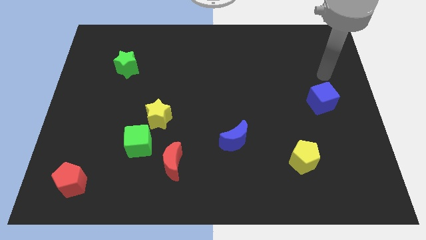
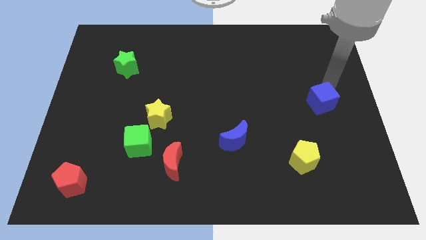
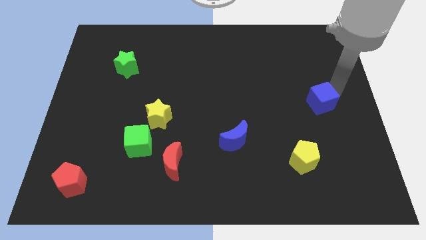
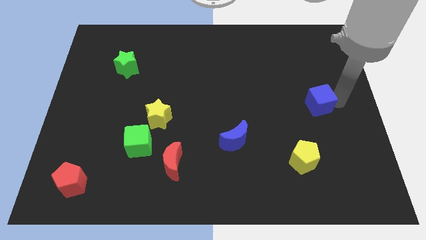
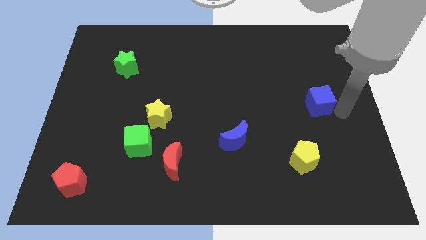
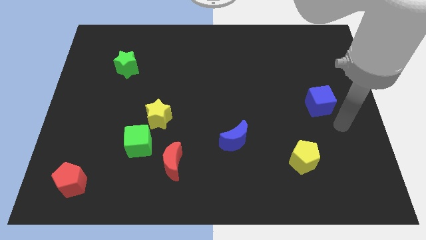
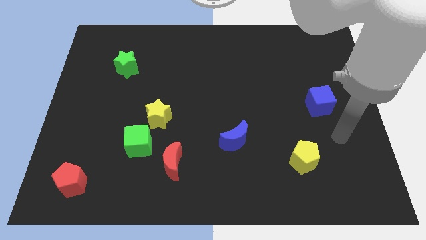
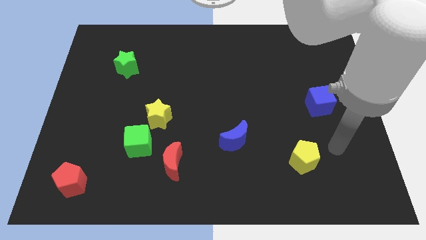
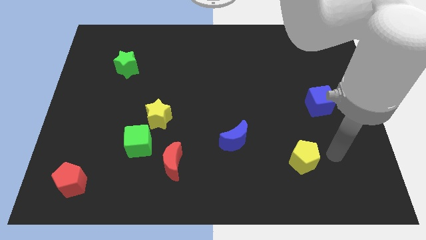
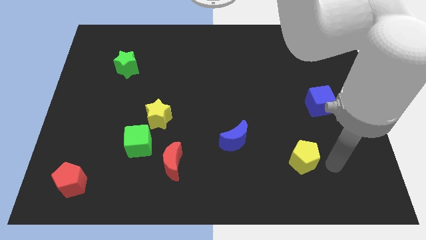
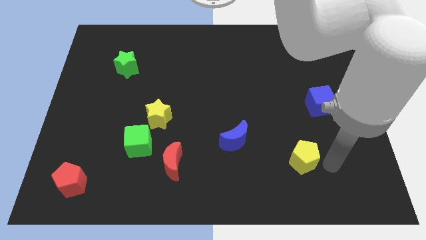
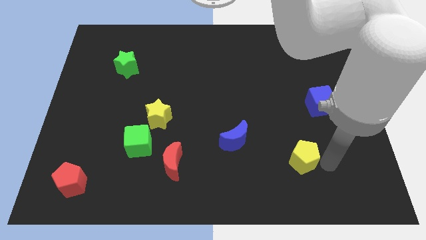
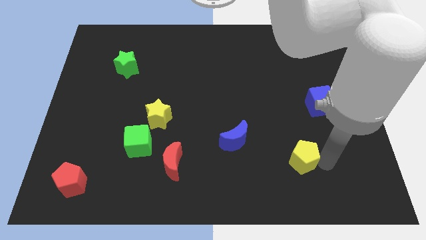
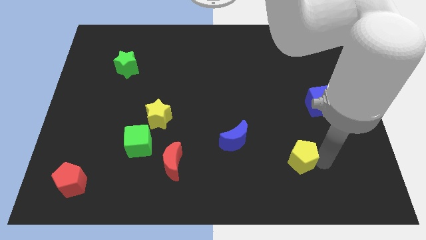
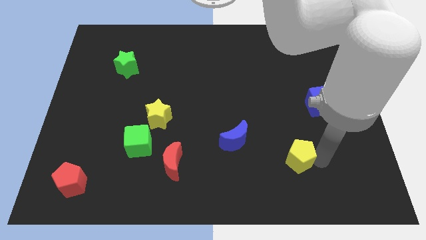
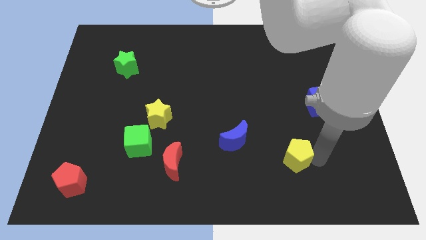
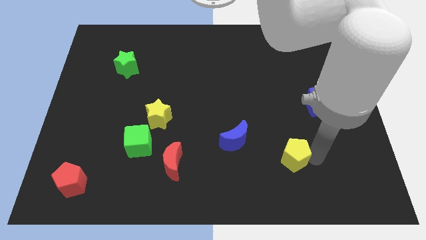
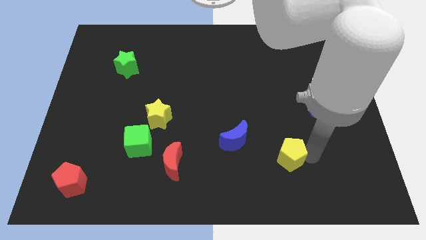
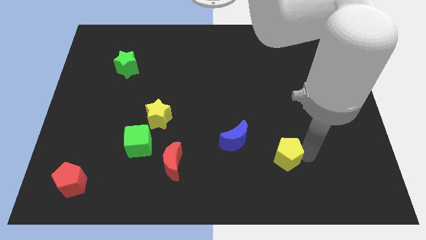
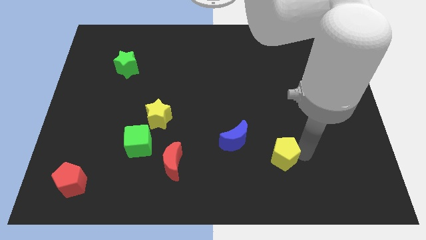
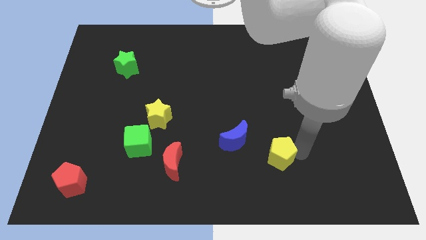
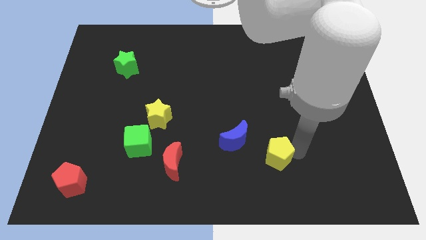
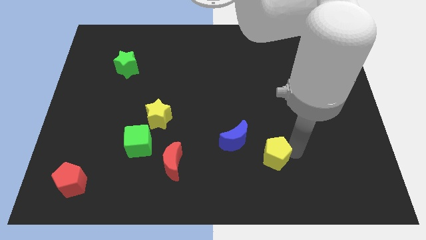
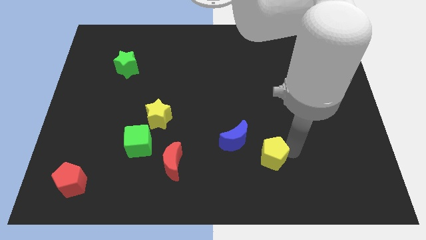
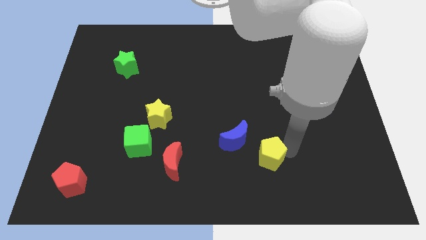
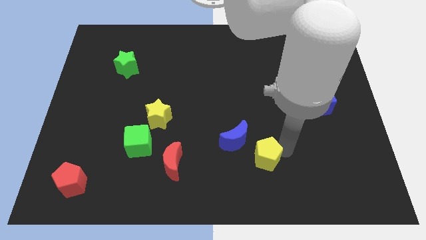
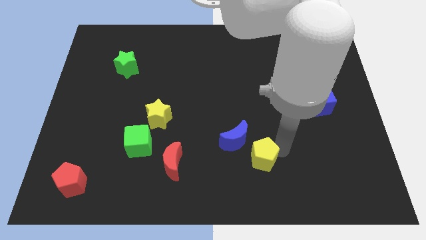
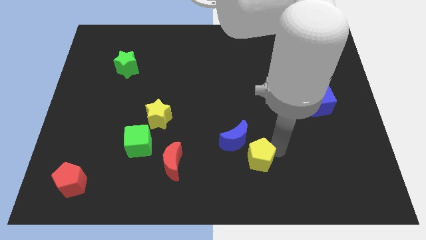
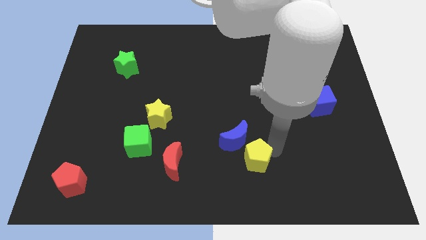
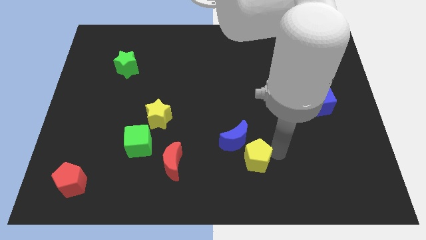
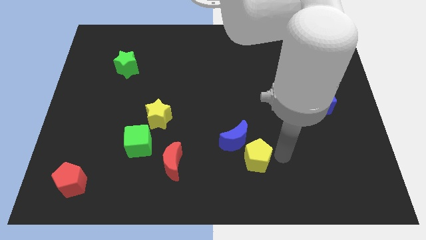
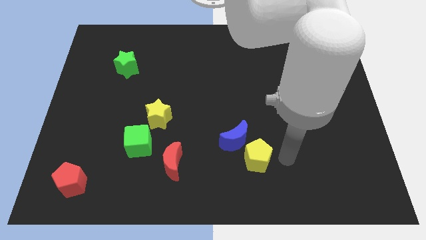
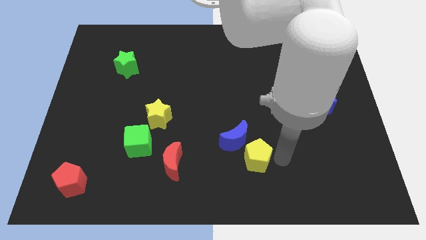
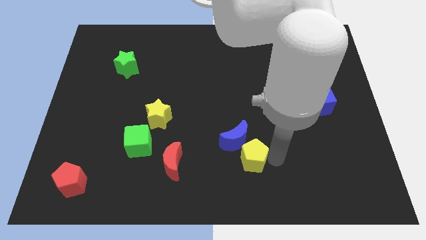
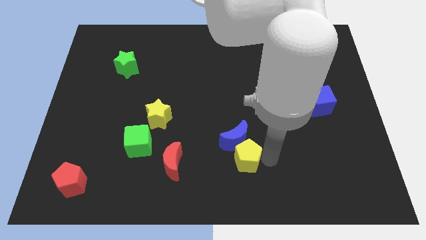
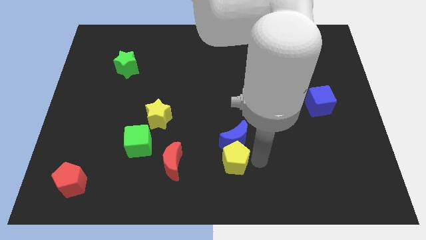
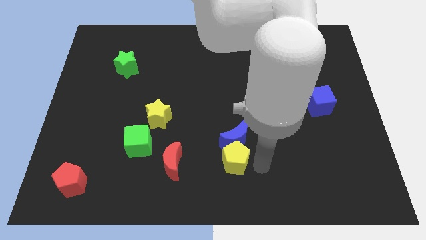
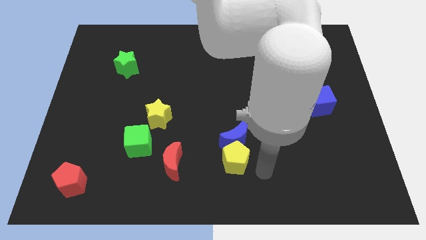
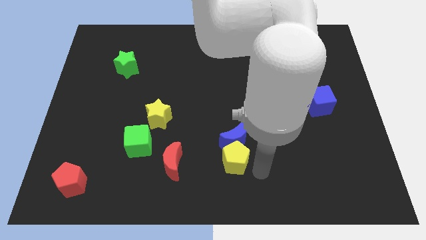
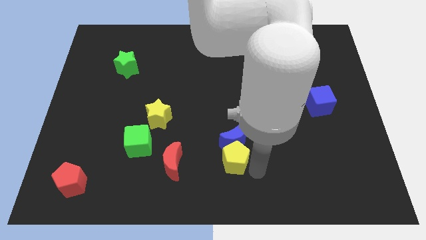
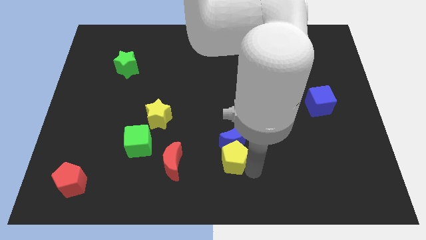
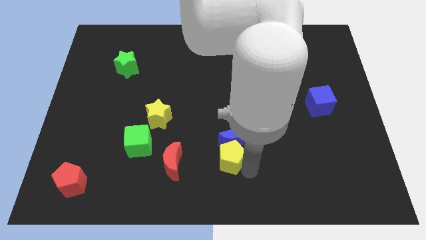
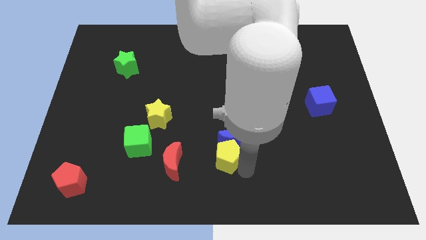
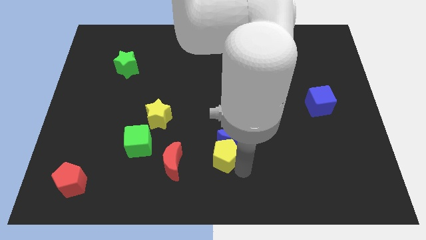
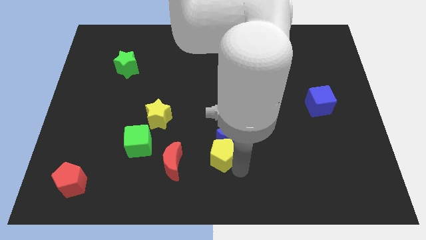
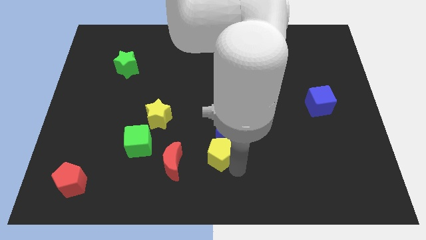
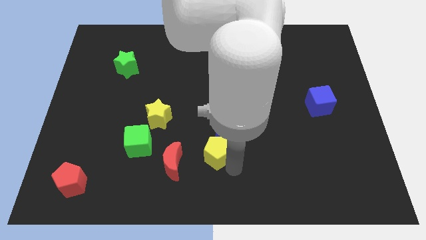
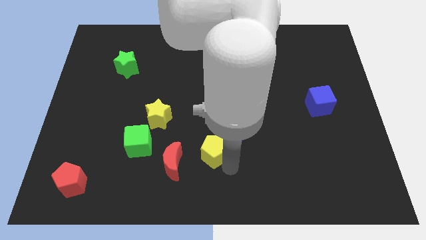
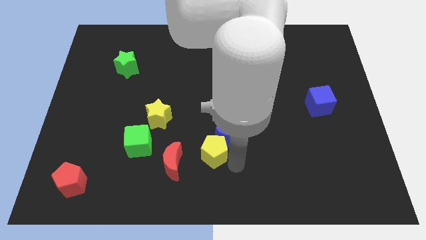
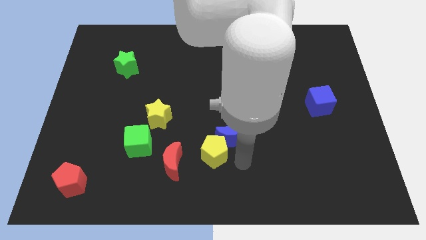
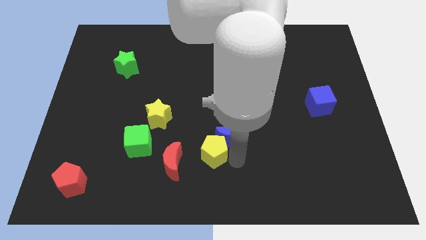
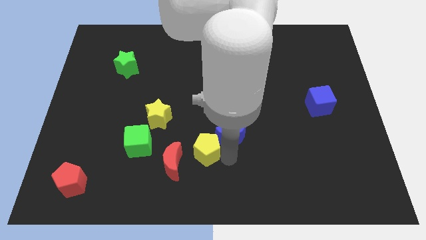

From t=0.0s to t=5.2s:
push the yellow pentagon to the left

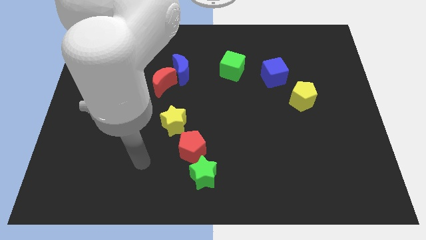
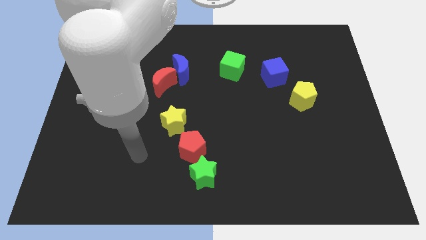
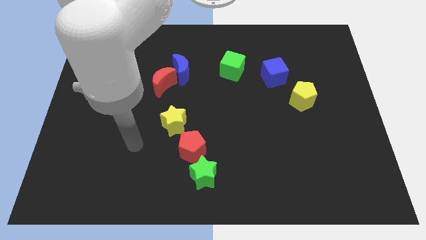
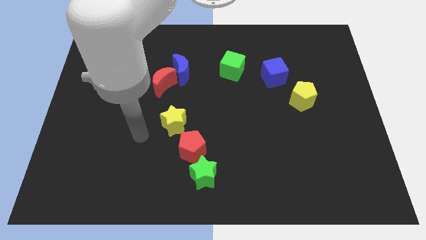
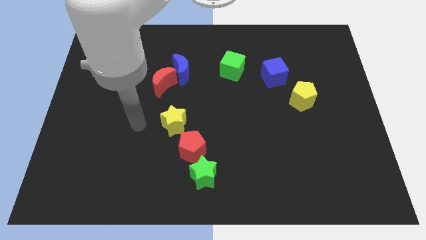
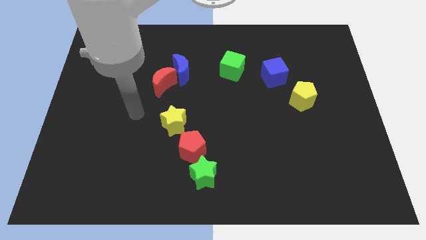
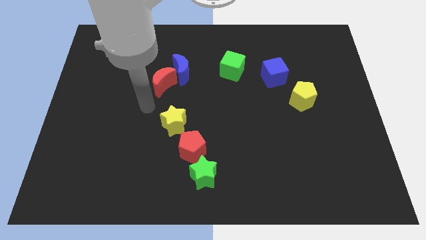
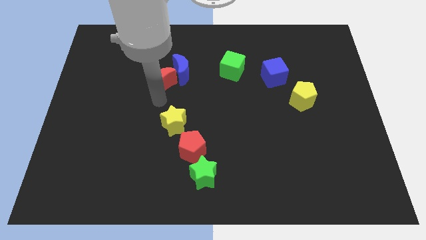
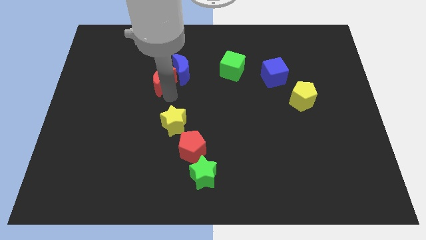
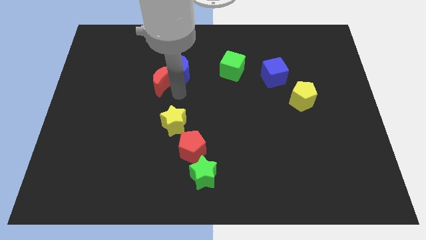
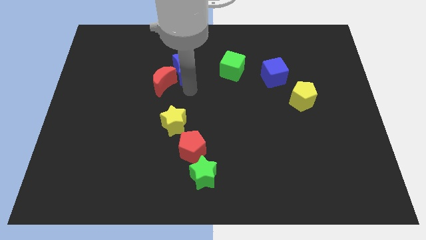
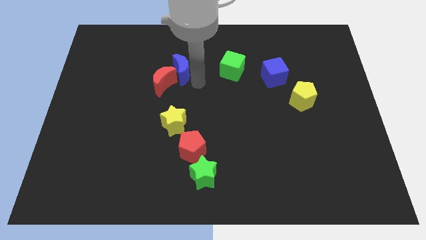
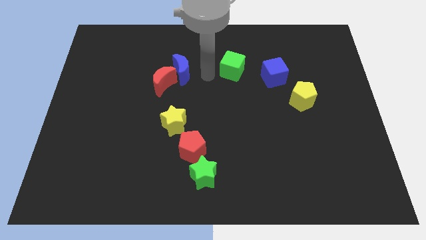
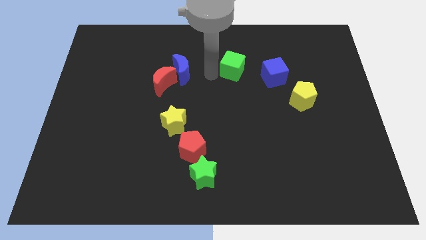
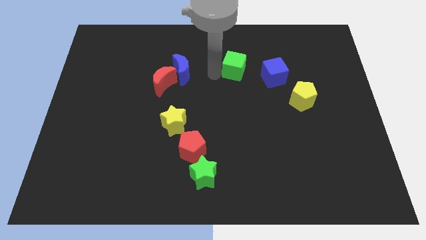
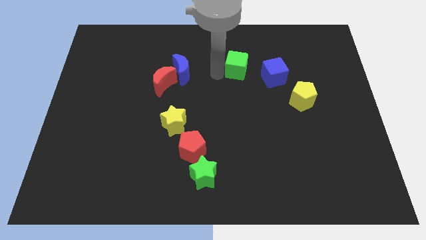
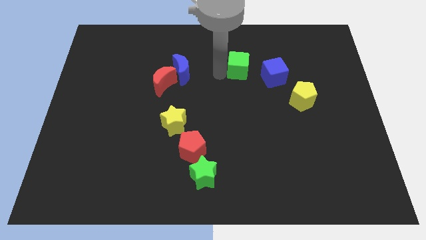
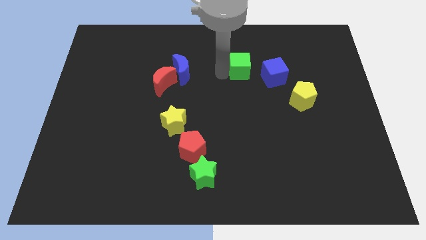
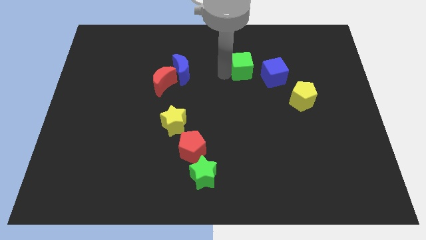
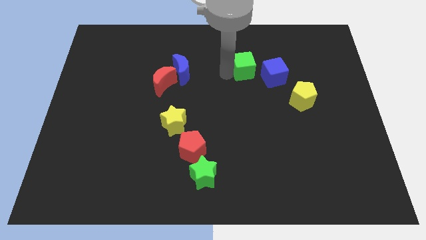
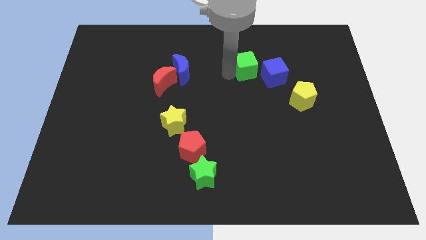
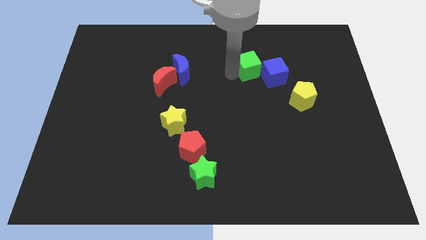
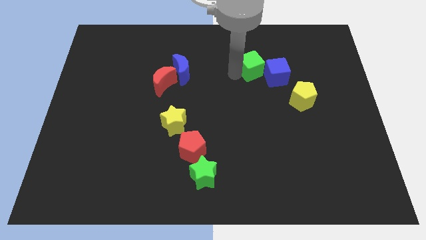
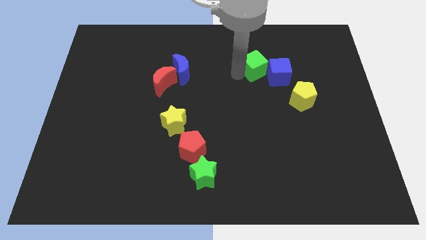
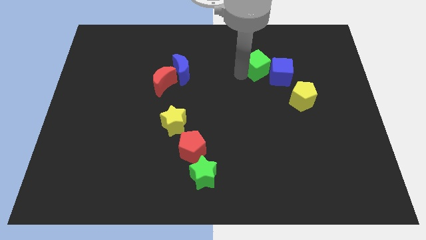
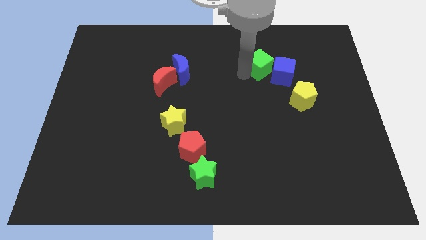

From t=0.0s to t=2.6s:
slightly push the green cube right
